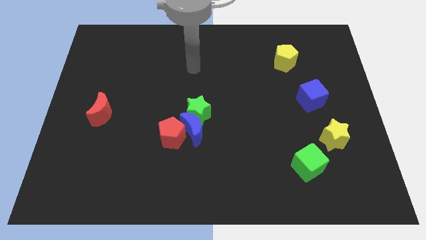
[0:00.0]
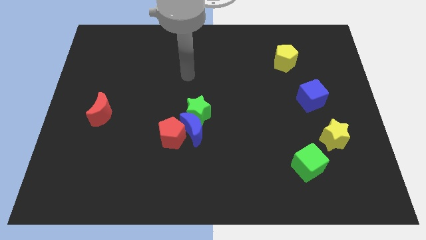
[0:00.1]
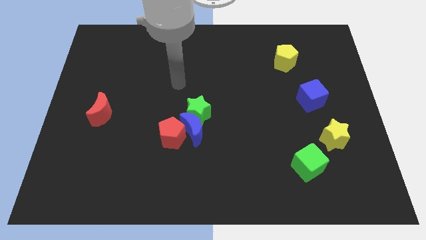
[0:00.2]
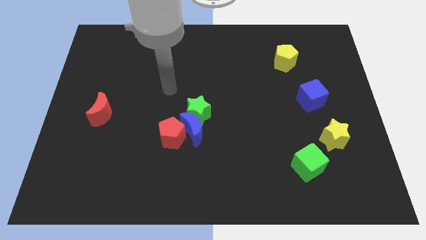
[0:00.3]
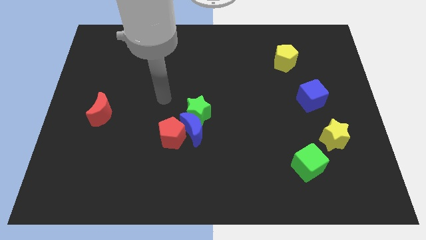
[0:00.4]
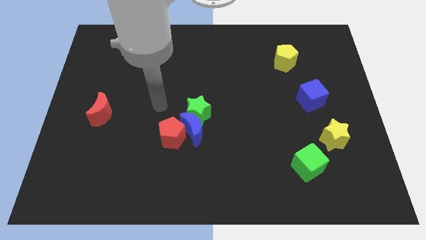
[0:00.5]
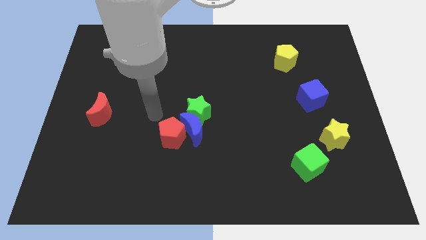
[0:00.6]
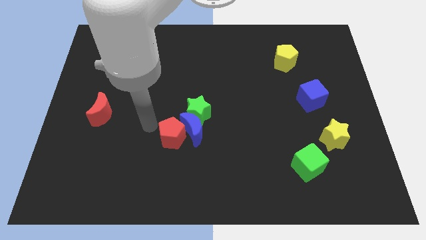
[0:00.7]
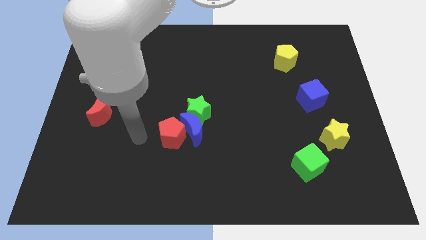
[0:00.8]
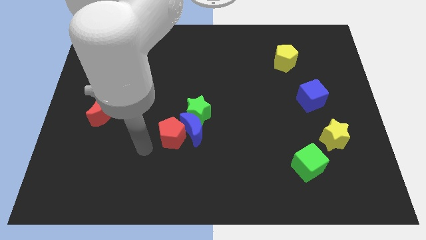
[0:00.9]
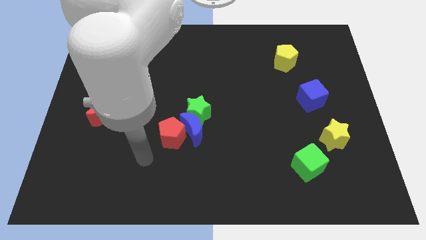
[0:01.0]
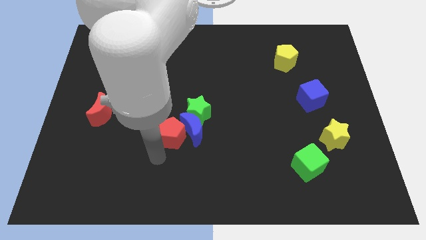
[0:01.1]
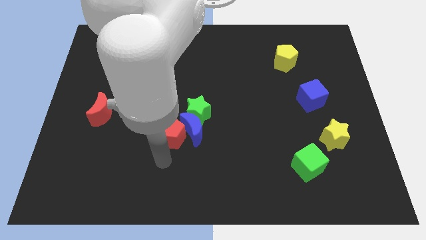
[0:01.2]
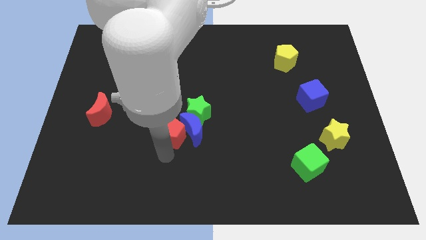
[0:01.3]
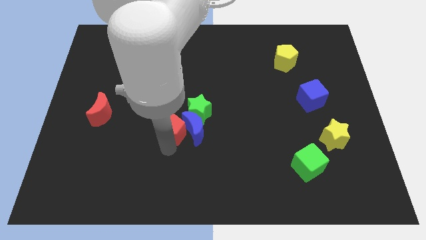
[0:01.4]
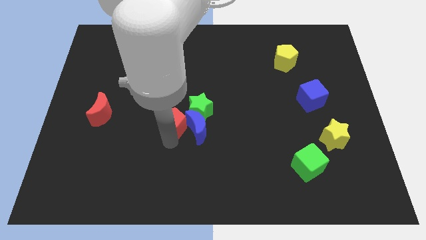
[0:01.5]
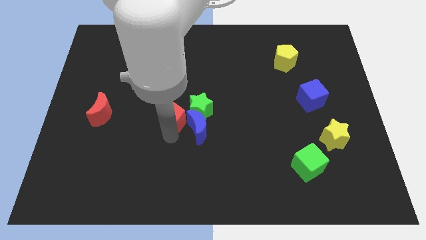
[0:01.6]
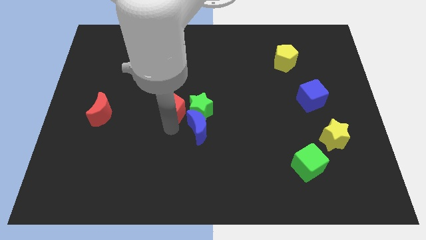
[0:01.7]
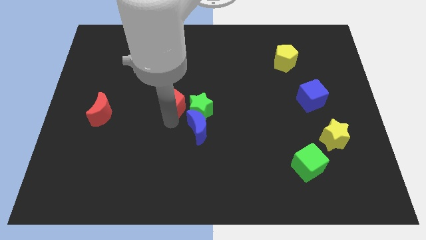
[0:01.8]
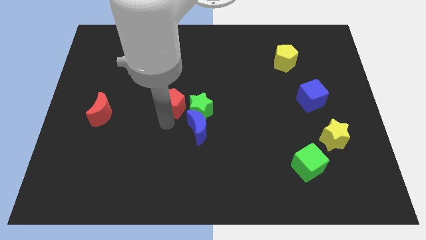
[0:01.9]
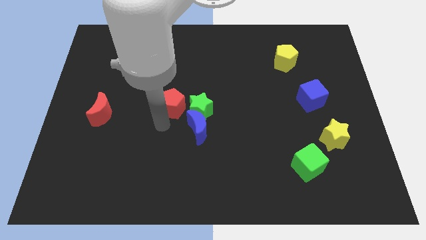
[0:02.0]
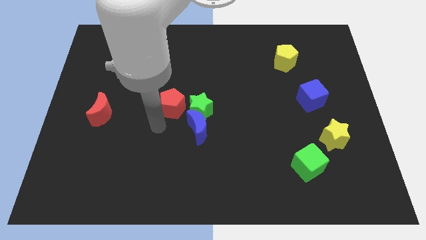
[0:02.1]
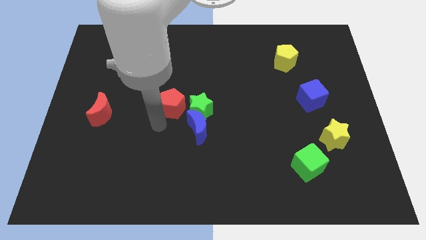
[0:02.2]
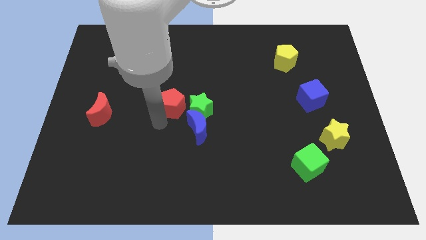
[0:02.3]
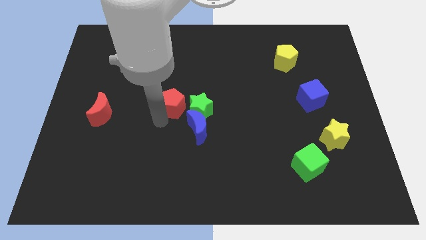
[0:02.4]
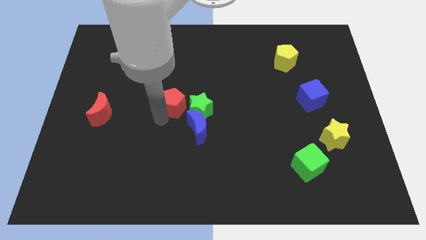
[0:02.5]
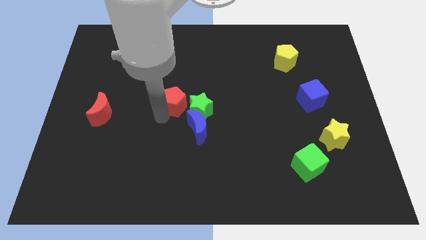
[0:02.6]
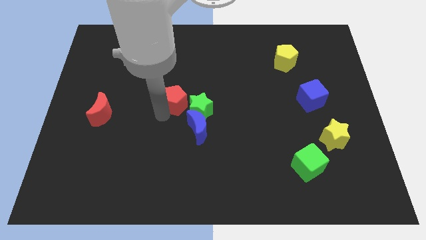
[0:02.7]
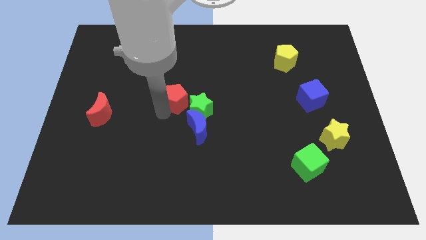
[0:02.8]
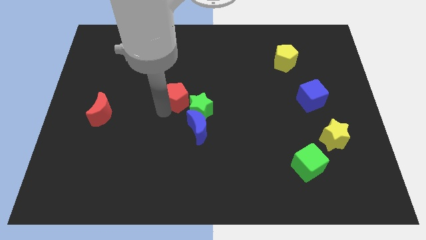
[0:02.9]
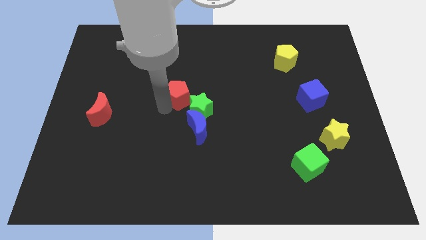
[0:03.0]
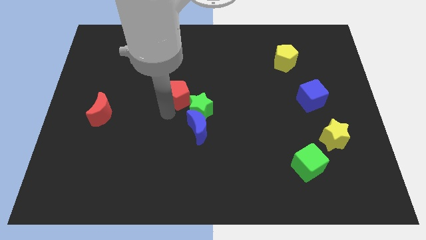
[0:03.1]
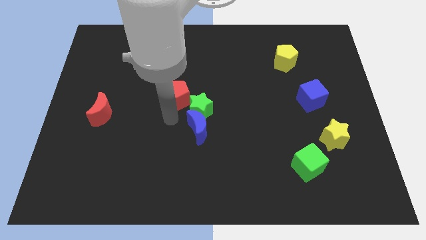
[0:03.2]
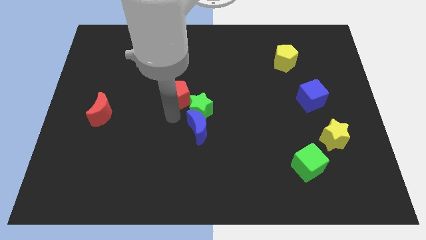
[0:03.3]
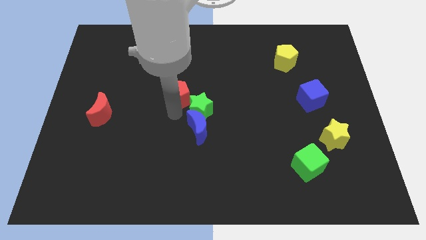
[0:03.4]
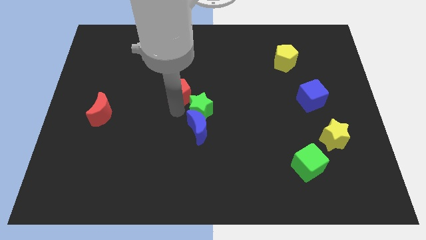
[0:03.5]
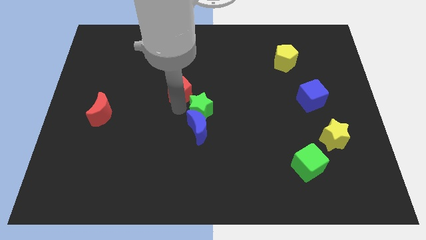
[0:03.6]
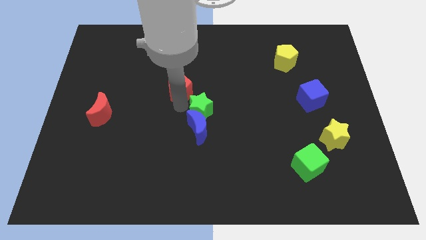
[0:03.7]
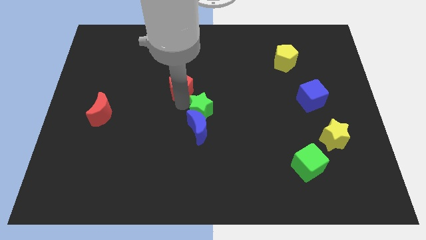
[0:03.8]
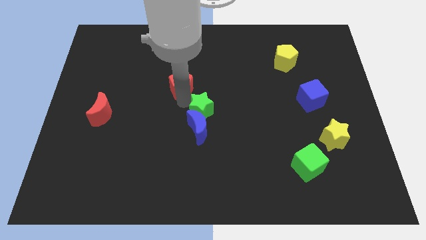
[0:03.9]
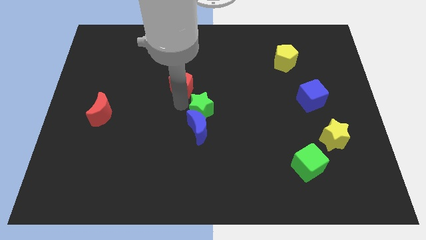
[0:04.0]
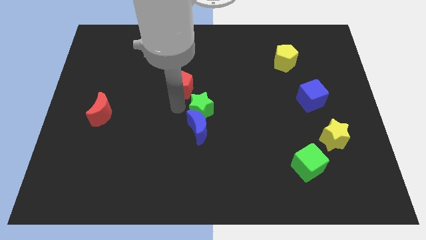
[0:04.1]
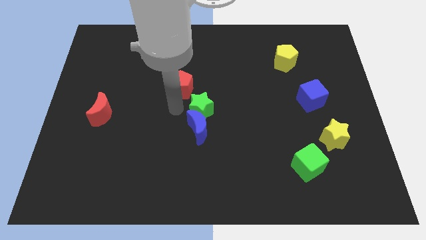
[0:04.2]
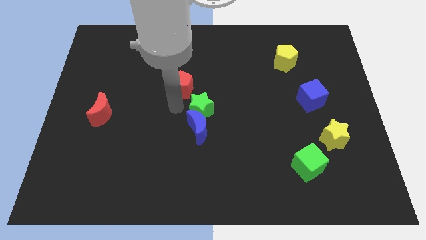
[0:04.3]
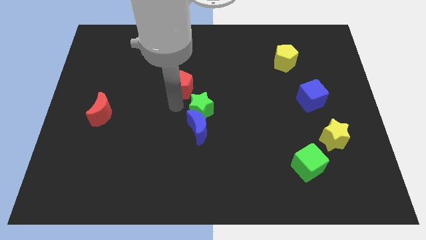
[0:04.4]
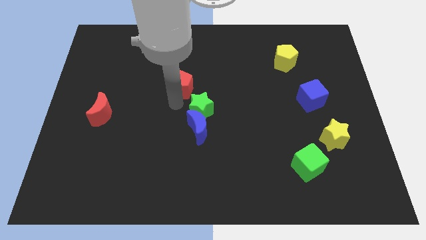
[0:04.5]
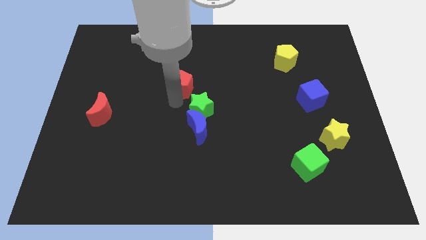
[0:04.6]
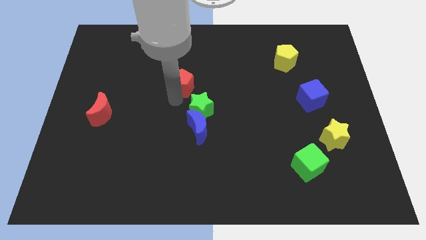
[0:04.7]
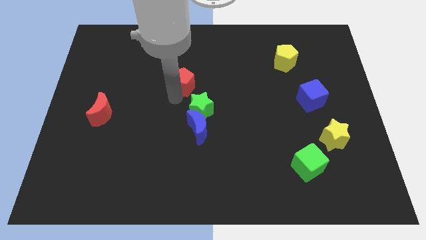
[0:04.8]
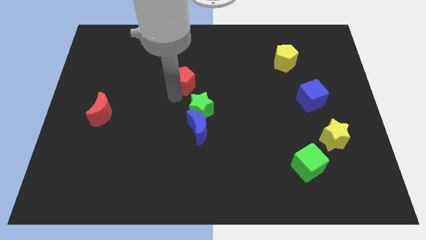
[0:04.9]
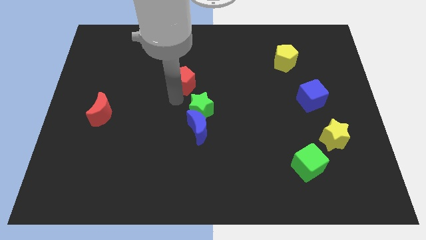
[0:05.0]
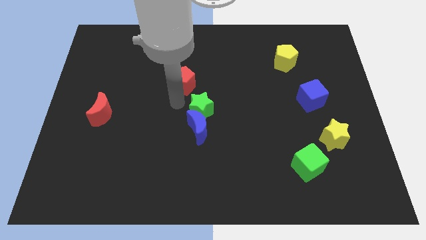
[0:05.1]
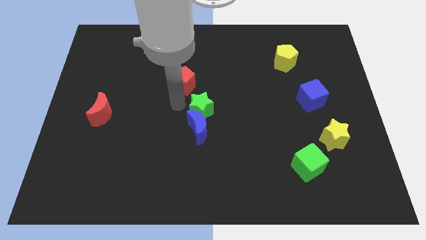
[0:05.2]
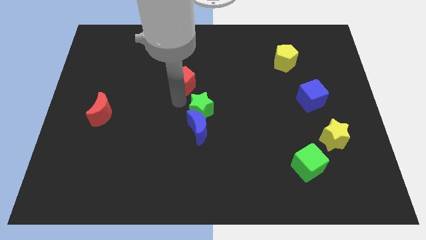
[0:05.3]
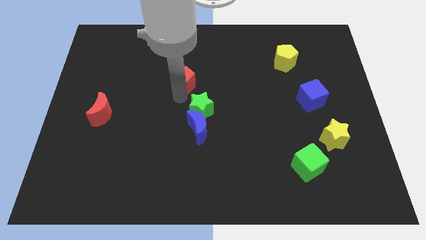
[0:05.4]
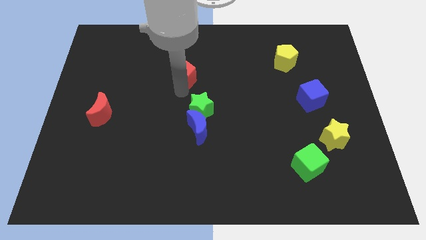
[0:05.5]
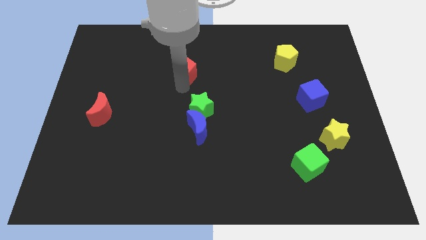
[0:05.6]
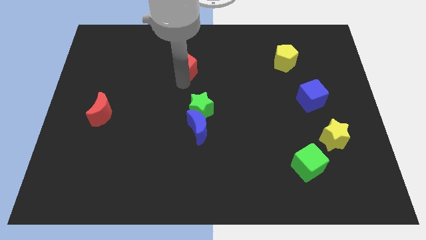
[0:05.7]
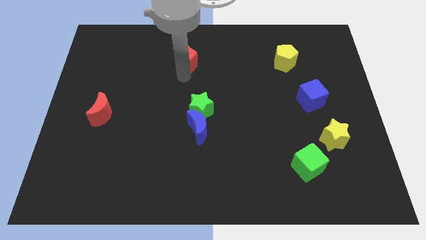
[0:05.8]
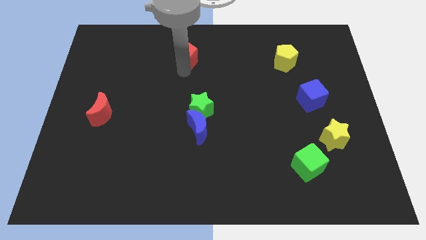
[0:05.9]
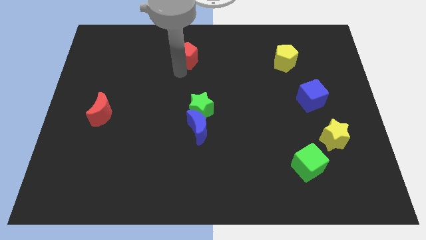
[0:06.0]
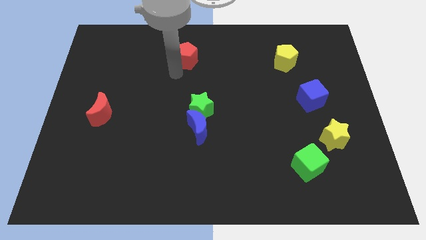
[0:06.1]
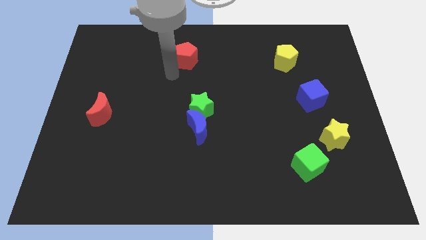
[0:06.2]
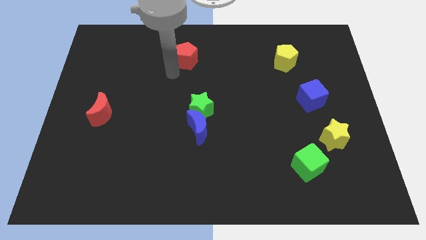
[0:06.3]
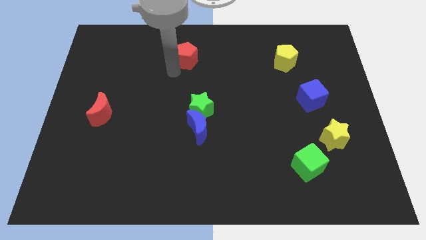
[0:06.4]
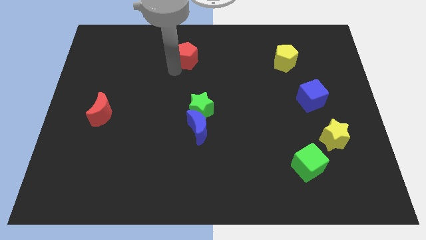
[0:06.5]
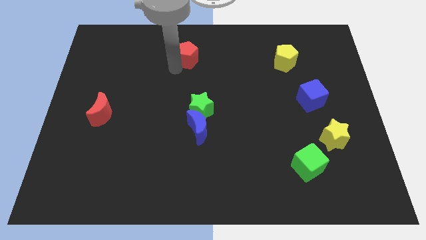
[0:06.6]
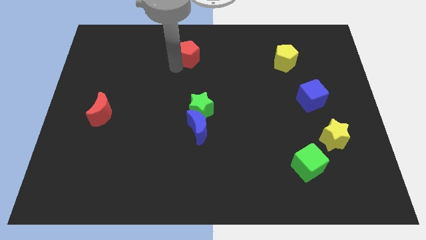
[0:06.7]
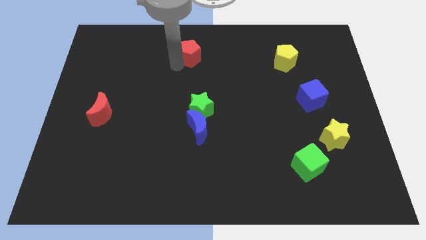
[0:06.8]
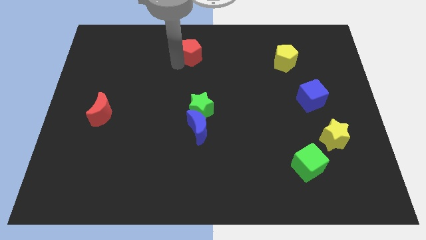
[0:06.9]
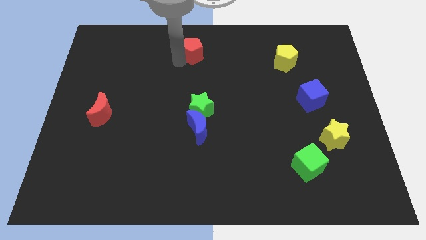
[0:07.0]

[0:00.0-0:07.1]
push the red pentagon to the towards your base

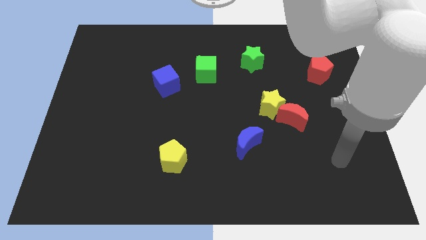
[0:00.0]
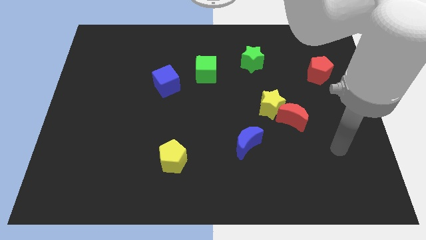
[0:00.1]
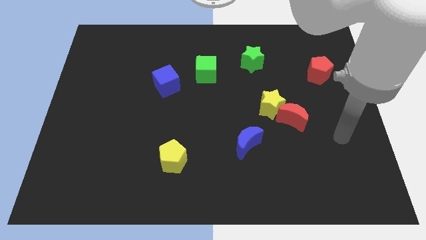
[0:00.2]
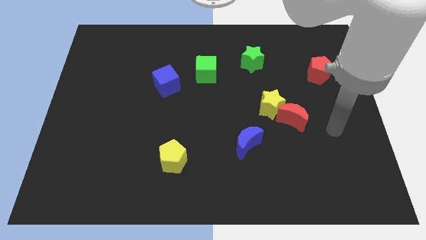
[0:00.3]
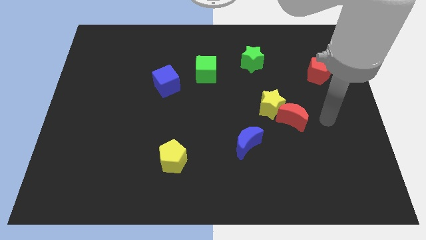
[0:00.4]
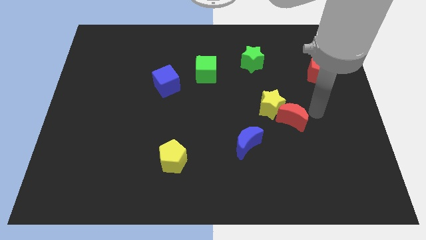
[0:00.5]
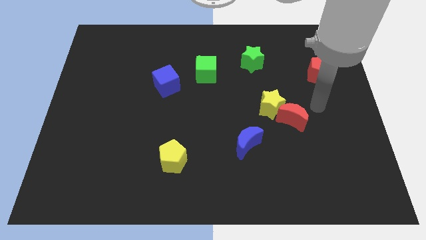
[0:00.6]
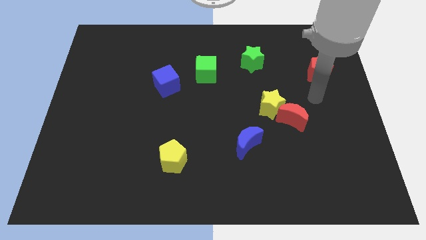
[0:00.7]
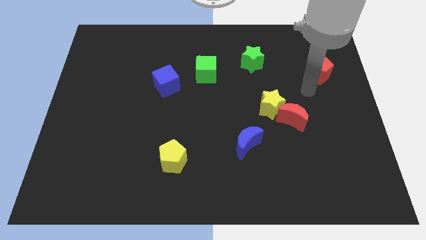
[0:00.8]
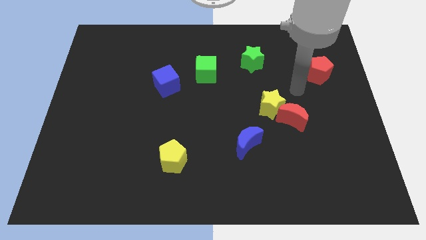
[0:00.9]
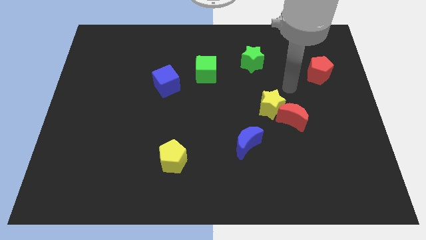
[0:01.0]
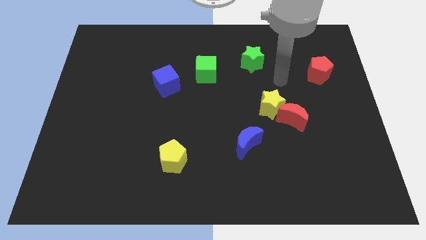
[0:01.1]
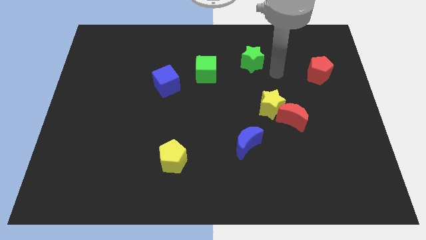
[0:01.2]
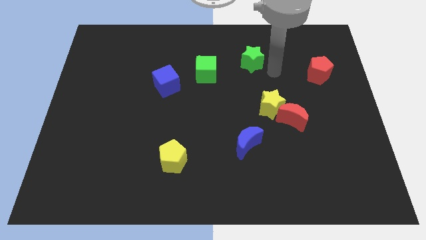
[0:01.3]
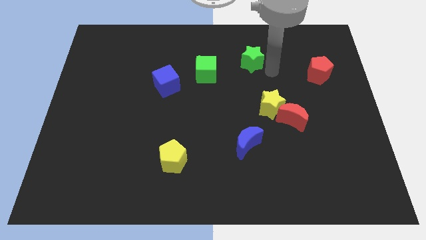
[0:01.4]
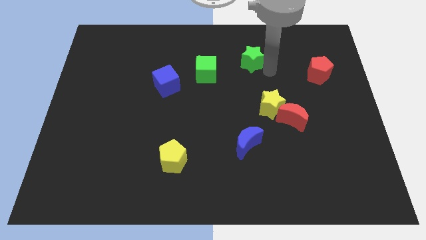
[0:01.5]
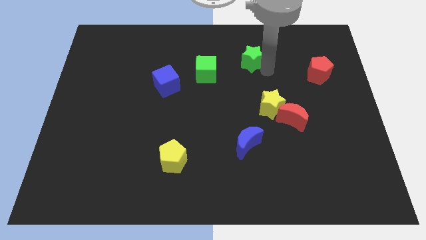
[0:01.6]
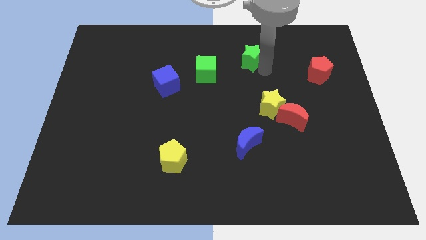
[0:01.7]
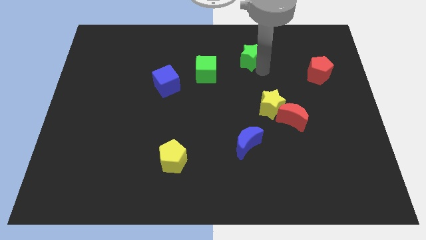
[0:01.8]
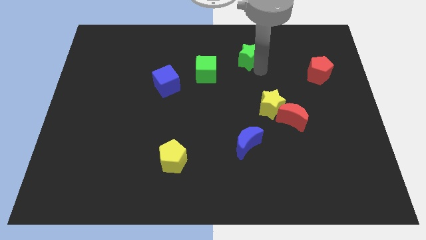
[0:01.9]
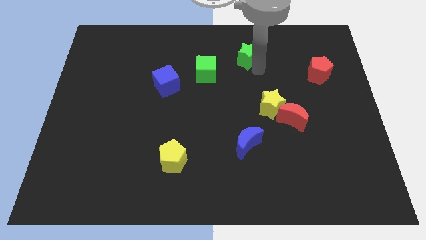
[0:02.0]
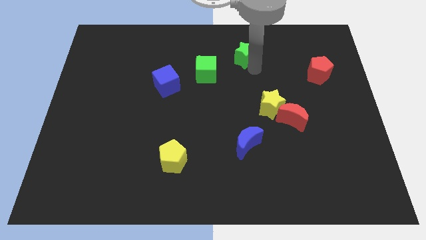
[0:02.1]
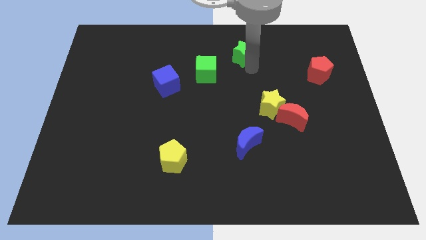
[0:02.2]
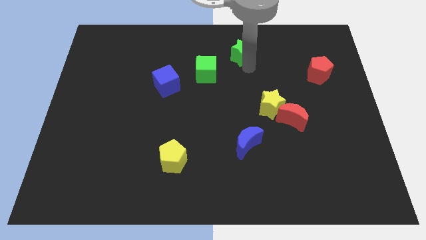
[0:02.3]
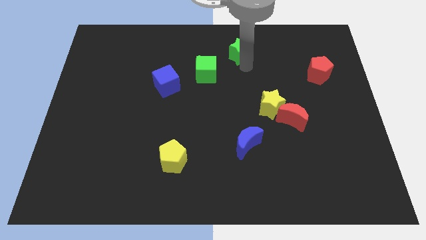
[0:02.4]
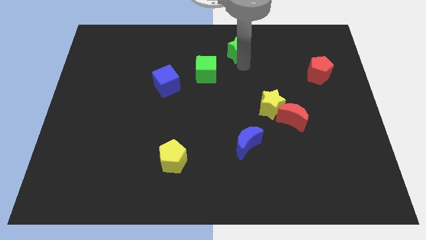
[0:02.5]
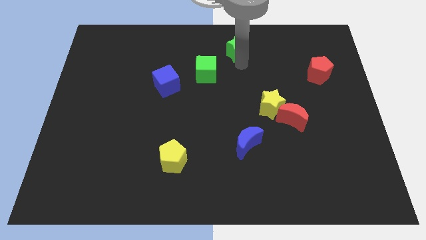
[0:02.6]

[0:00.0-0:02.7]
move the green star to the towards your base
